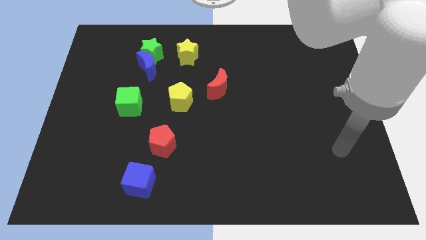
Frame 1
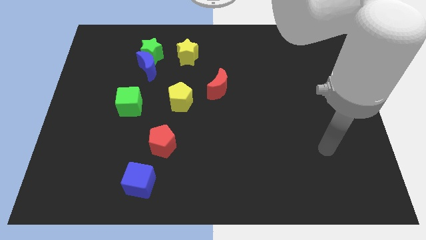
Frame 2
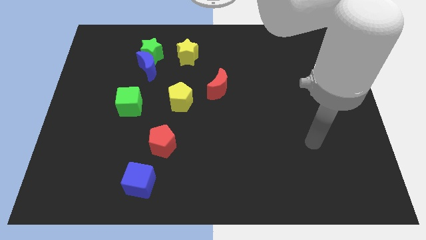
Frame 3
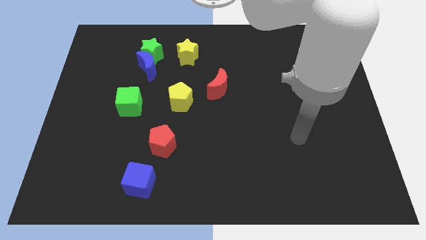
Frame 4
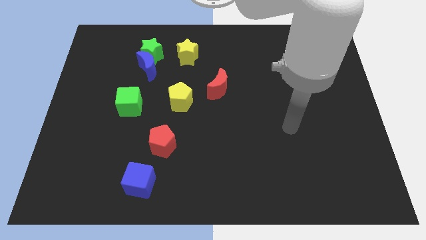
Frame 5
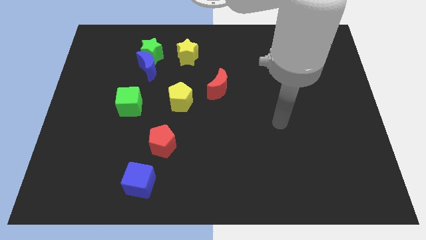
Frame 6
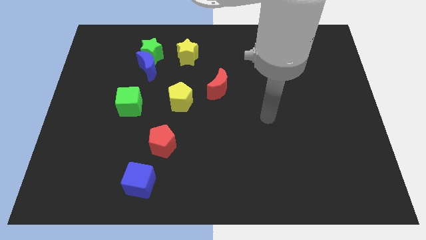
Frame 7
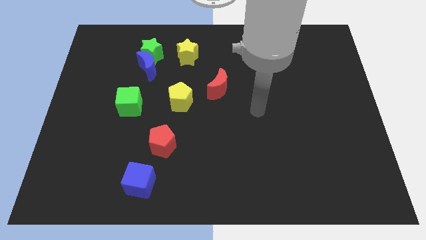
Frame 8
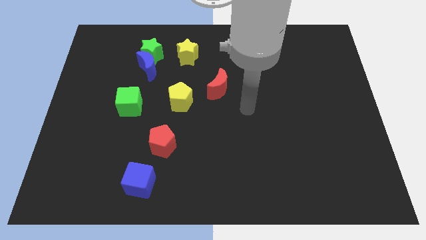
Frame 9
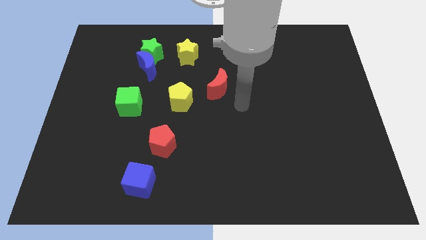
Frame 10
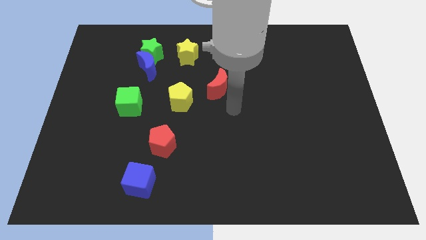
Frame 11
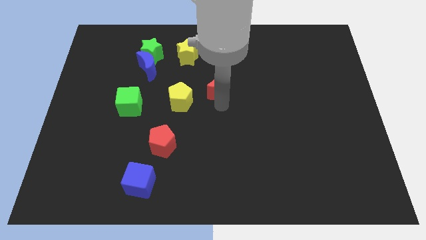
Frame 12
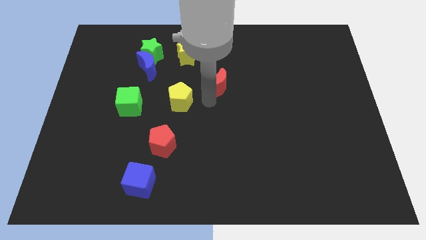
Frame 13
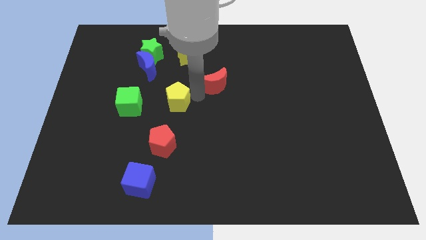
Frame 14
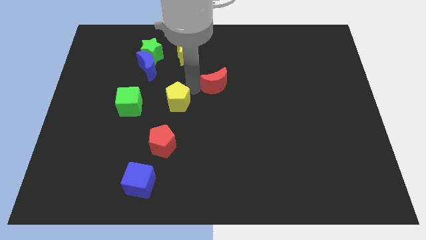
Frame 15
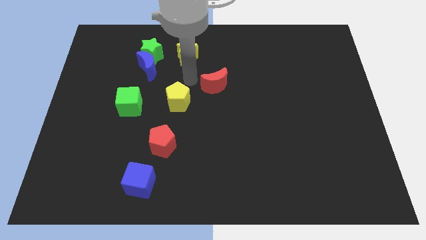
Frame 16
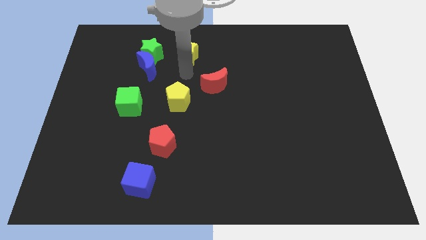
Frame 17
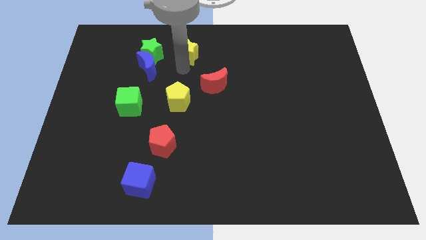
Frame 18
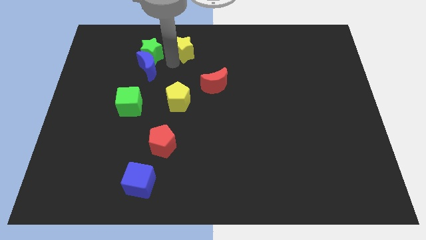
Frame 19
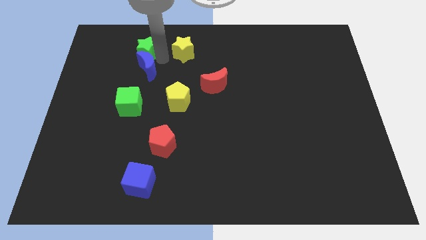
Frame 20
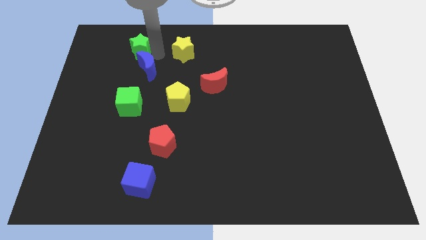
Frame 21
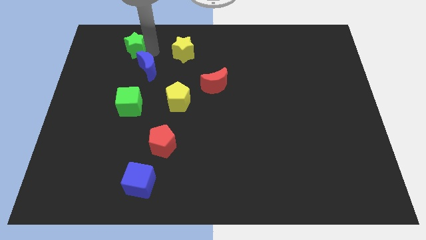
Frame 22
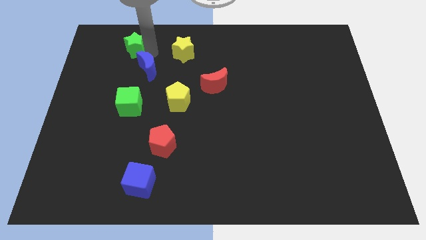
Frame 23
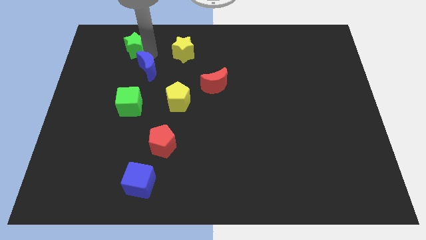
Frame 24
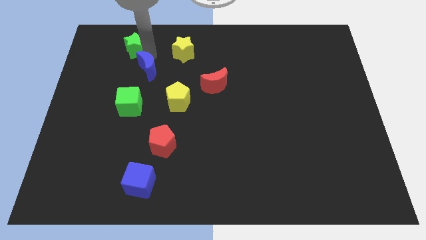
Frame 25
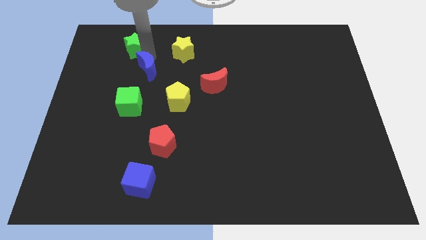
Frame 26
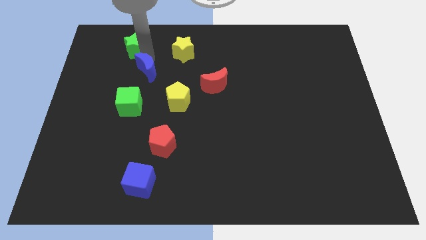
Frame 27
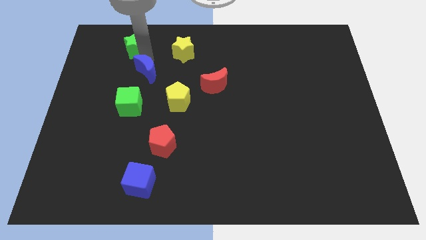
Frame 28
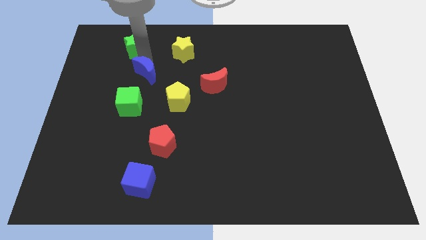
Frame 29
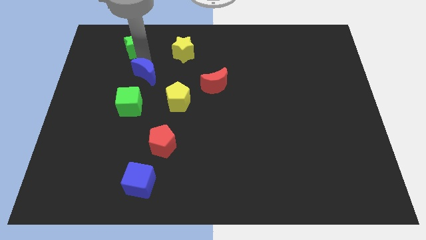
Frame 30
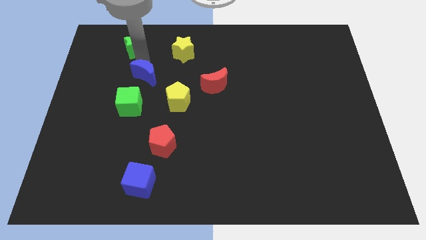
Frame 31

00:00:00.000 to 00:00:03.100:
separate the blue moon from the green star

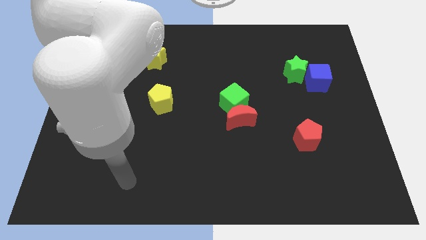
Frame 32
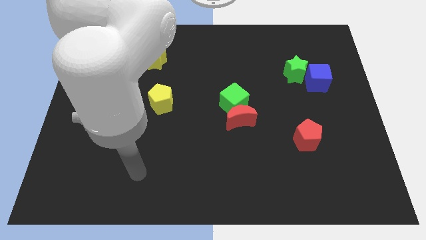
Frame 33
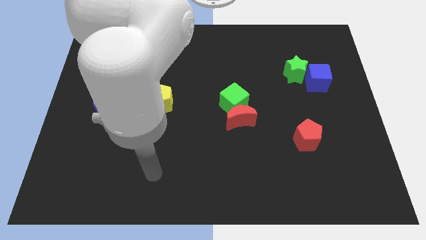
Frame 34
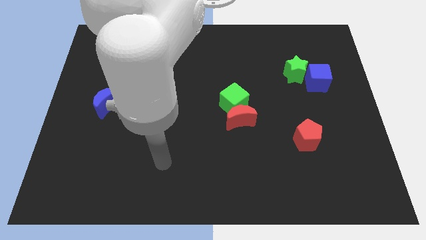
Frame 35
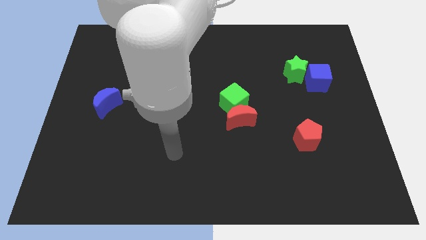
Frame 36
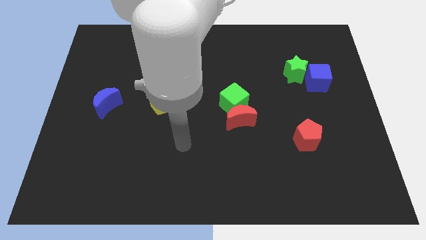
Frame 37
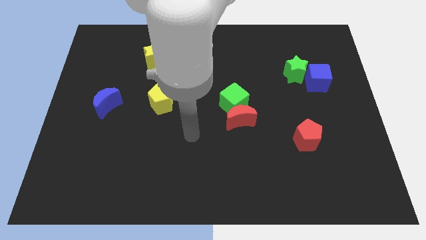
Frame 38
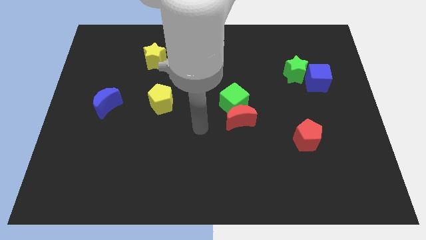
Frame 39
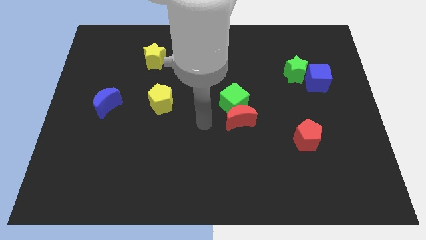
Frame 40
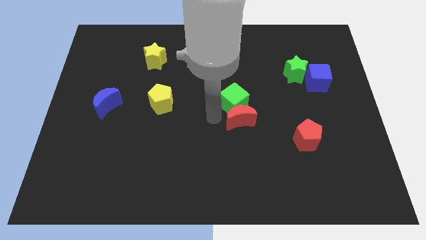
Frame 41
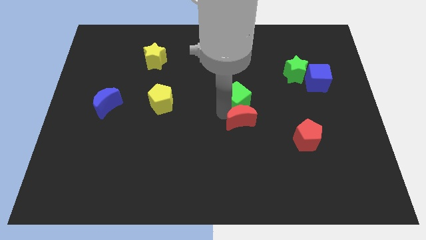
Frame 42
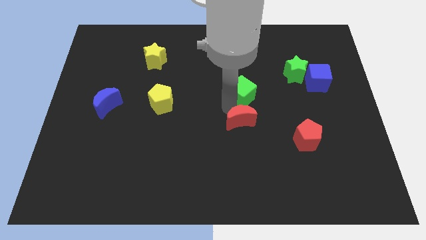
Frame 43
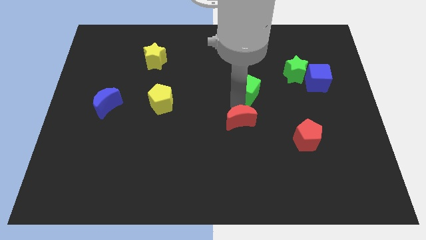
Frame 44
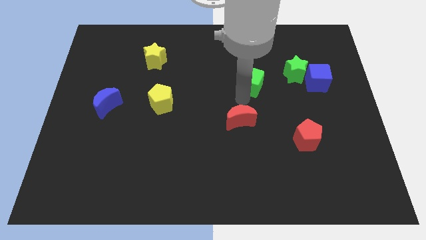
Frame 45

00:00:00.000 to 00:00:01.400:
move the red moon away from the green cube

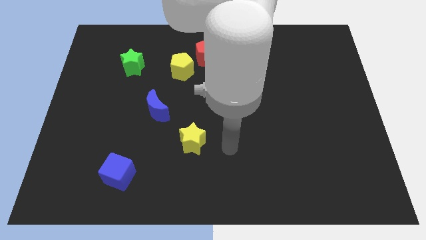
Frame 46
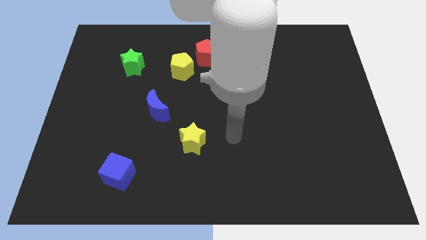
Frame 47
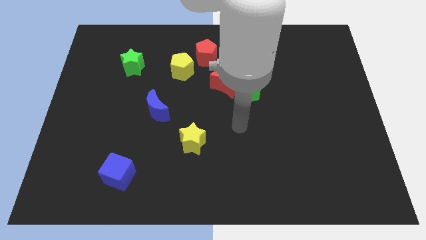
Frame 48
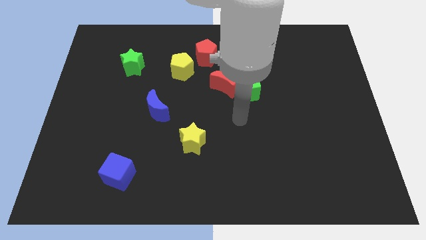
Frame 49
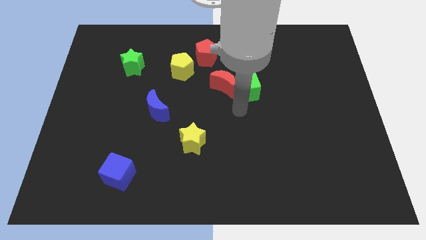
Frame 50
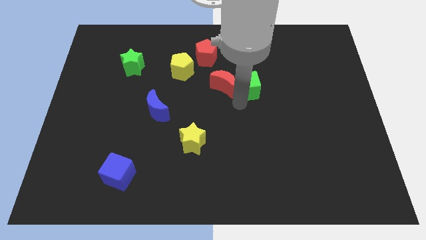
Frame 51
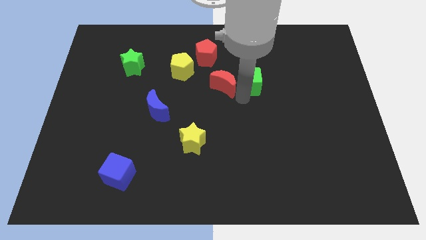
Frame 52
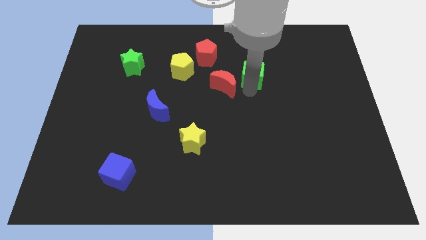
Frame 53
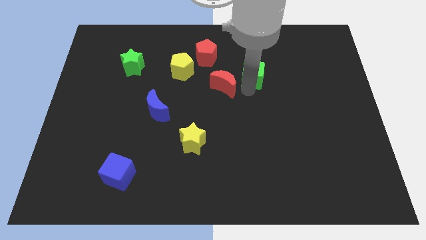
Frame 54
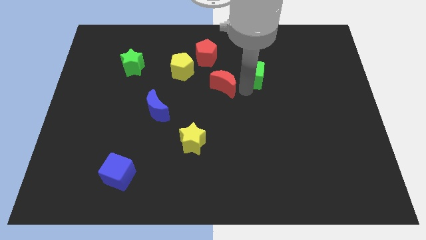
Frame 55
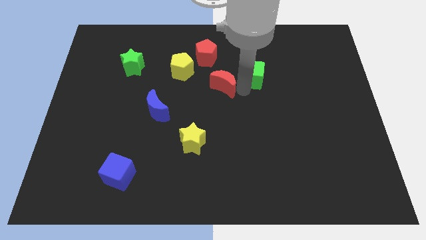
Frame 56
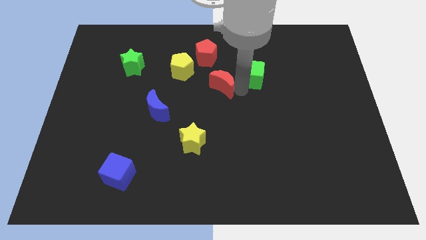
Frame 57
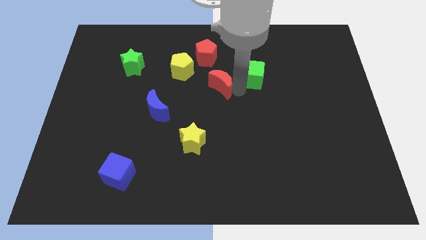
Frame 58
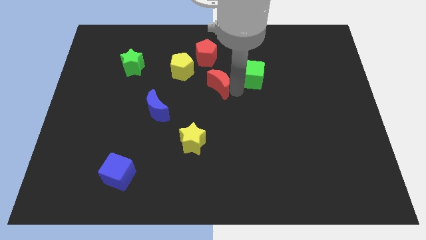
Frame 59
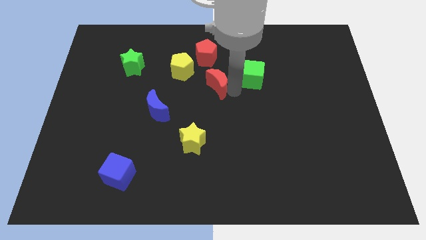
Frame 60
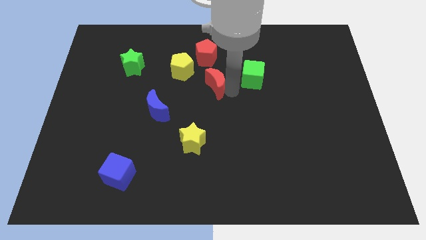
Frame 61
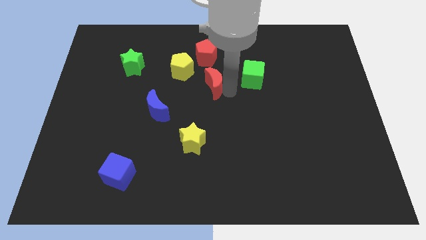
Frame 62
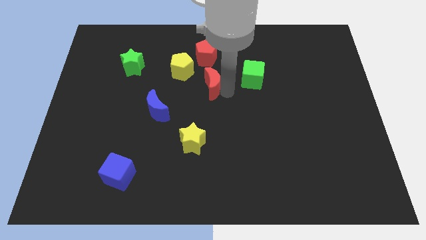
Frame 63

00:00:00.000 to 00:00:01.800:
pull the red moon apart from the green cube

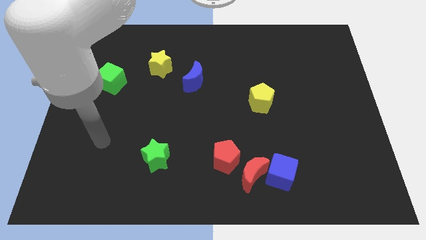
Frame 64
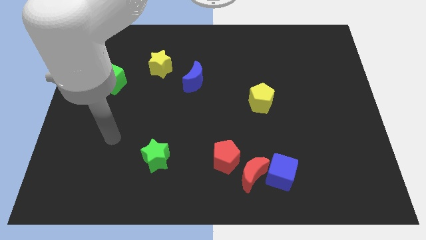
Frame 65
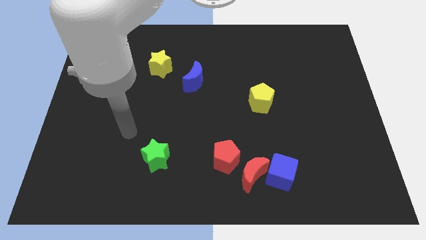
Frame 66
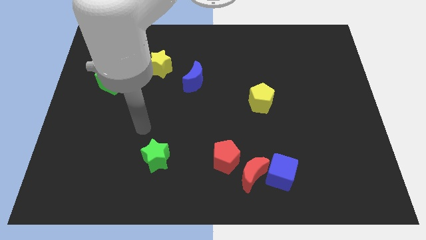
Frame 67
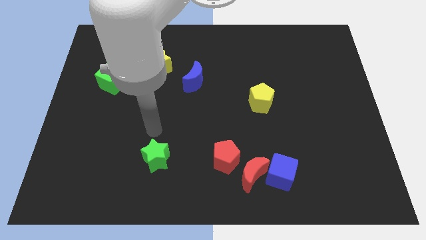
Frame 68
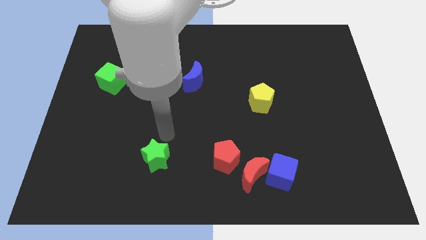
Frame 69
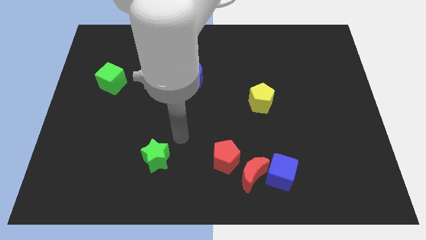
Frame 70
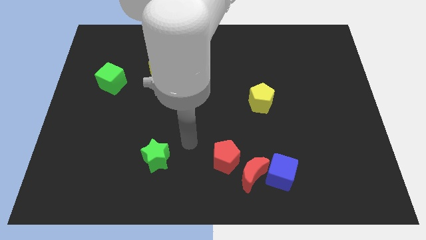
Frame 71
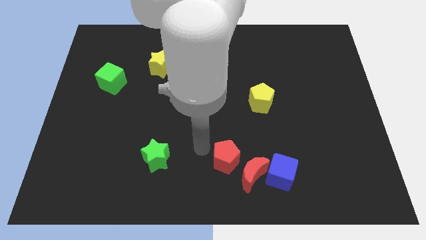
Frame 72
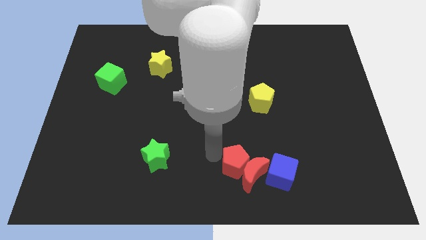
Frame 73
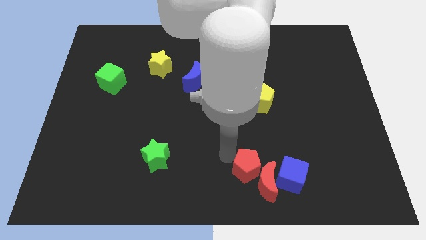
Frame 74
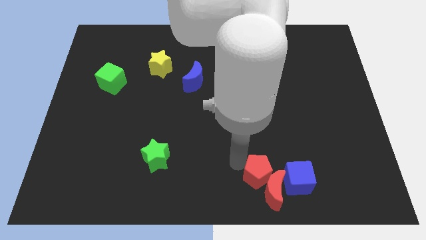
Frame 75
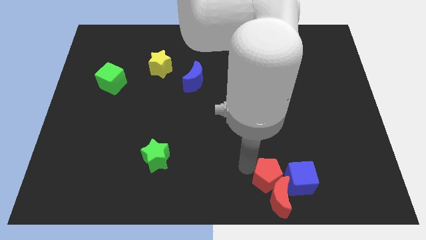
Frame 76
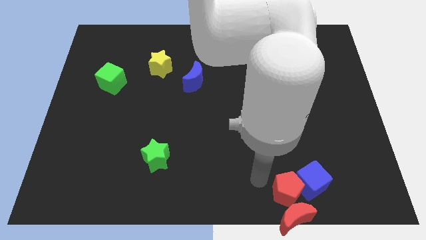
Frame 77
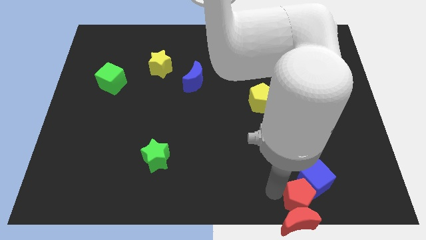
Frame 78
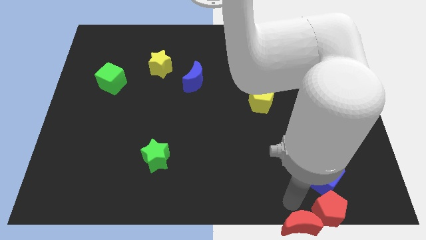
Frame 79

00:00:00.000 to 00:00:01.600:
move the blue cube away from the red moon

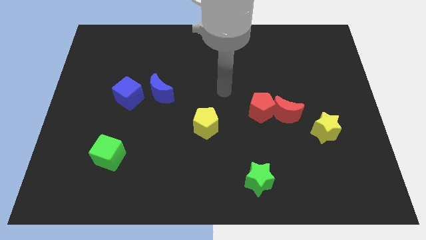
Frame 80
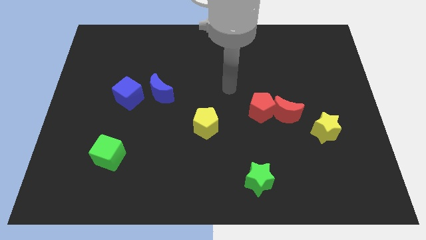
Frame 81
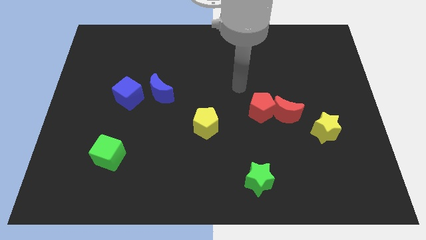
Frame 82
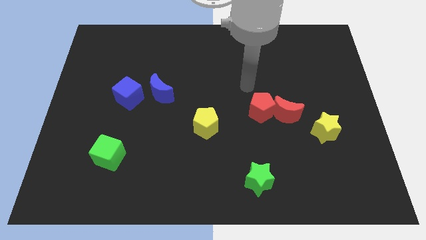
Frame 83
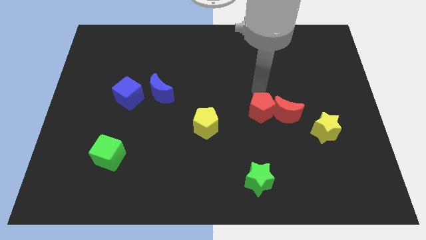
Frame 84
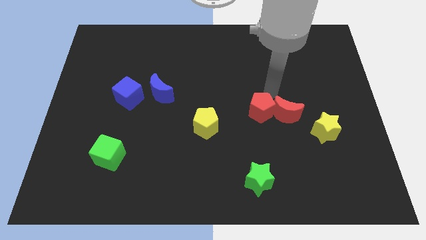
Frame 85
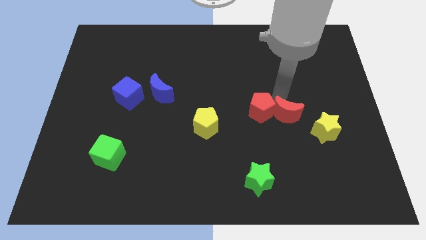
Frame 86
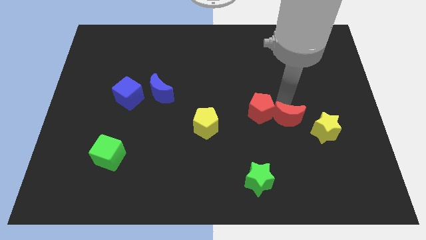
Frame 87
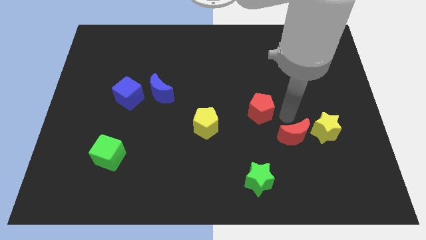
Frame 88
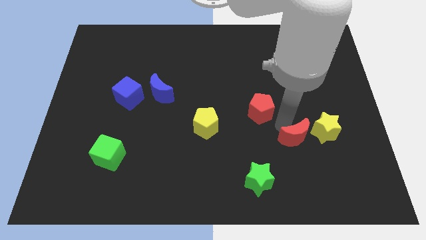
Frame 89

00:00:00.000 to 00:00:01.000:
move the red pentagon away from the red moon

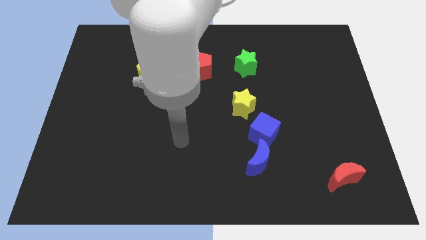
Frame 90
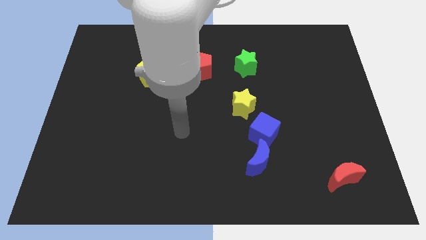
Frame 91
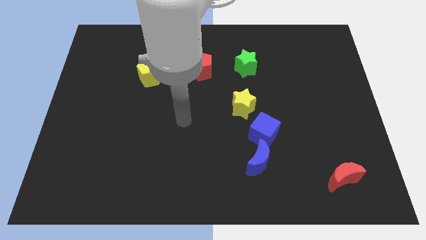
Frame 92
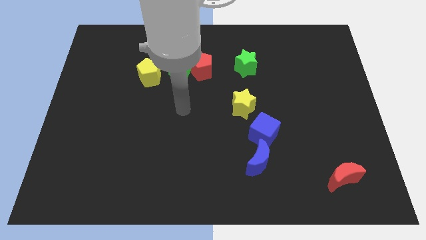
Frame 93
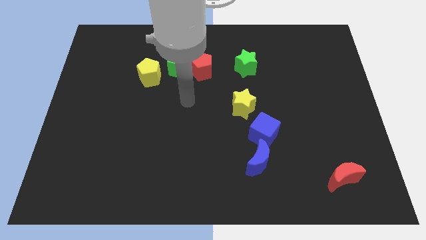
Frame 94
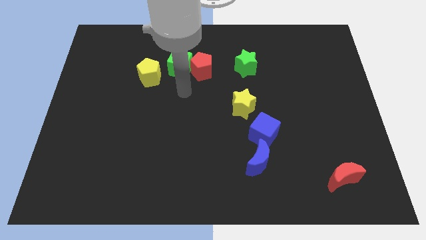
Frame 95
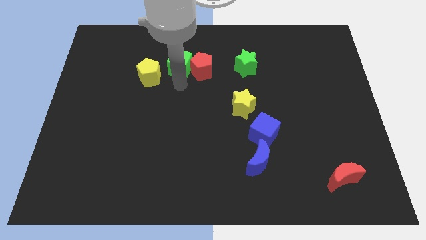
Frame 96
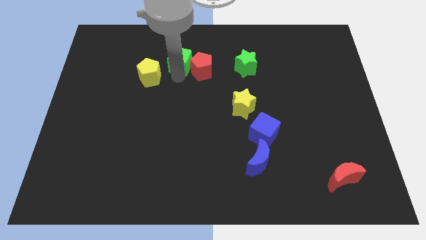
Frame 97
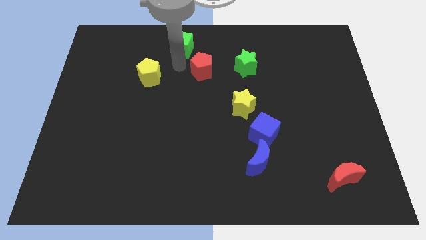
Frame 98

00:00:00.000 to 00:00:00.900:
pull the red pentagon apart from the green cube
